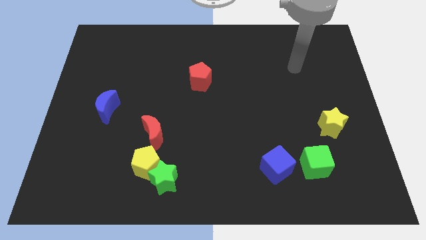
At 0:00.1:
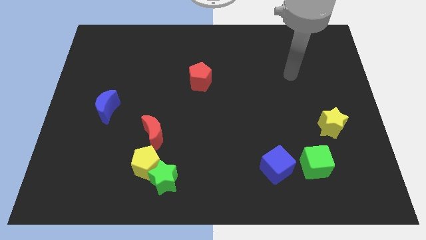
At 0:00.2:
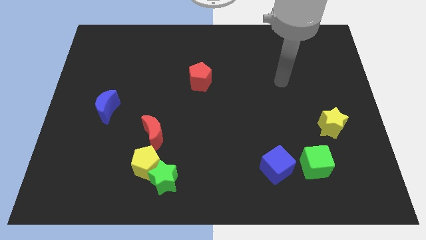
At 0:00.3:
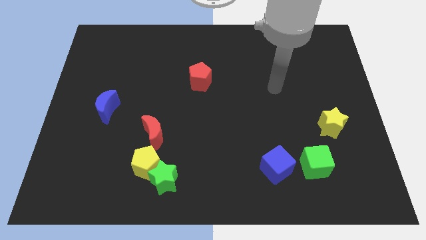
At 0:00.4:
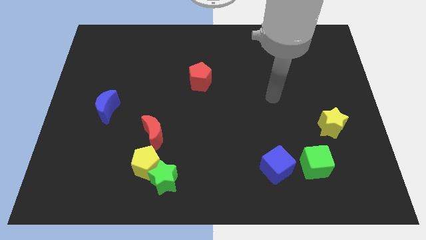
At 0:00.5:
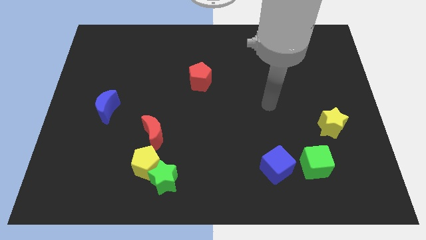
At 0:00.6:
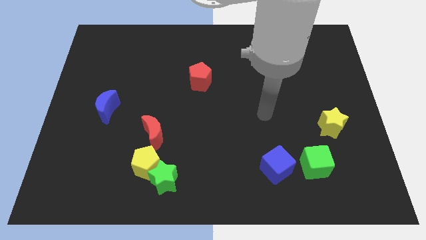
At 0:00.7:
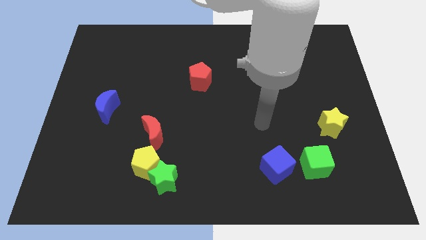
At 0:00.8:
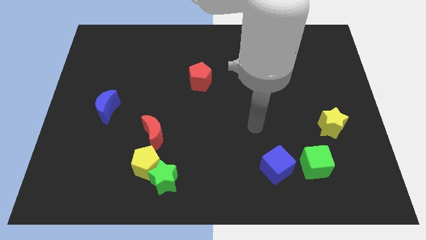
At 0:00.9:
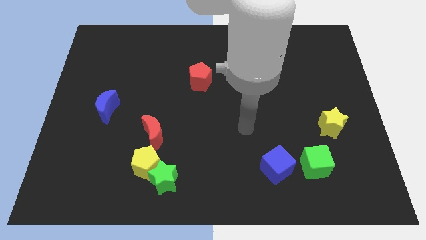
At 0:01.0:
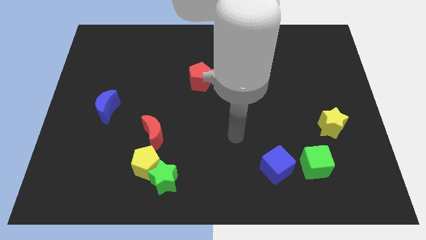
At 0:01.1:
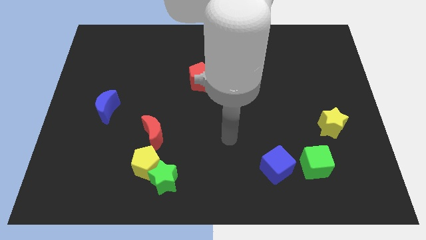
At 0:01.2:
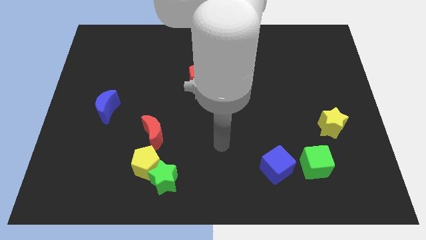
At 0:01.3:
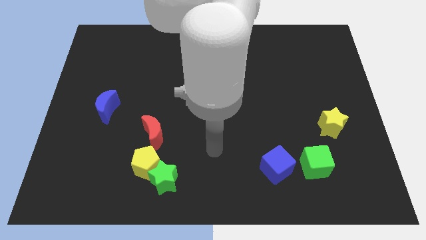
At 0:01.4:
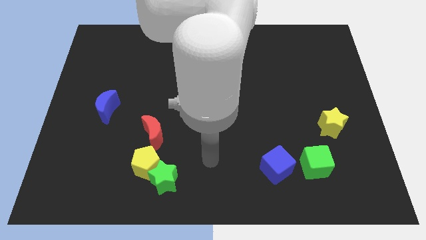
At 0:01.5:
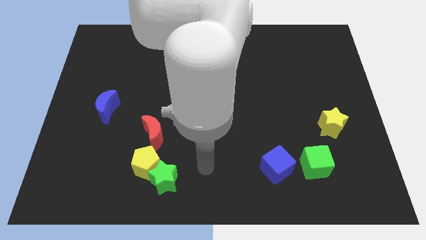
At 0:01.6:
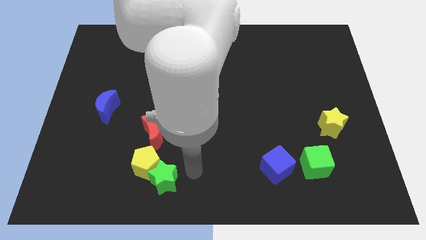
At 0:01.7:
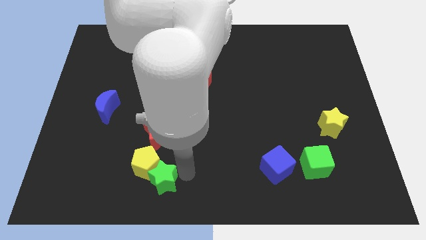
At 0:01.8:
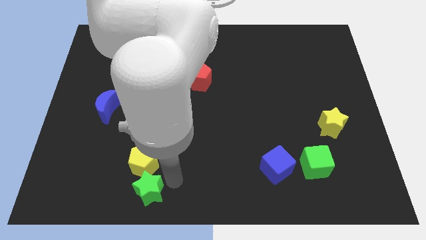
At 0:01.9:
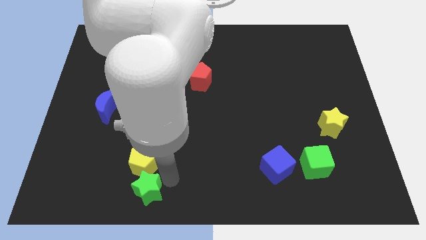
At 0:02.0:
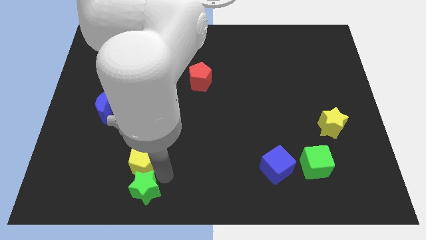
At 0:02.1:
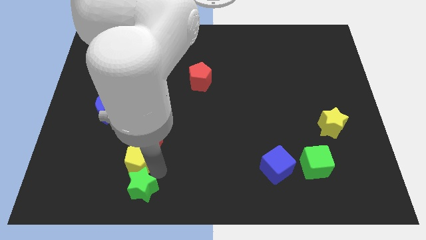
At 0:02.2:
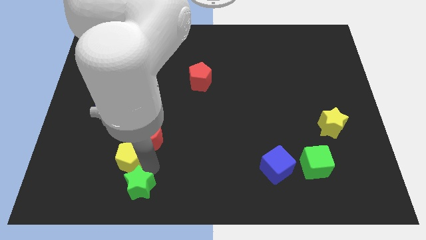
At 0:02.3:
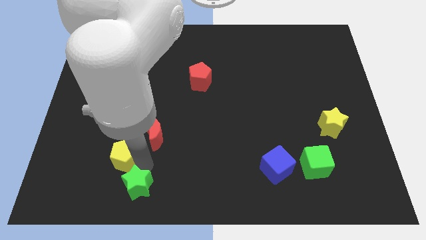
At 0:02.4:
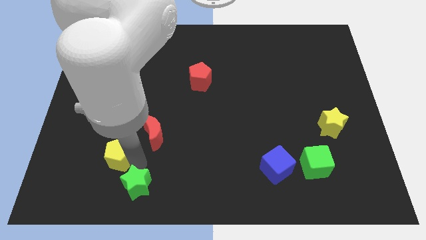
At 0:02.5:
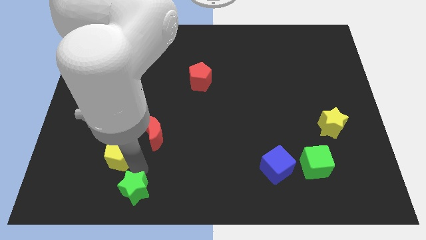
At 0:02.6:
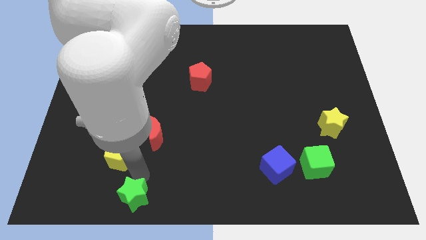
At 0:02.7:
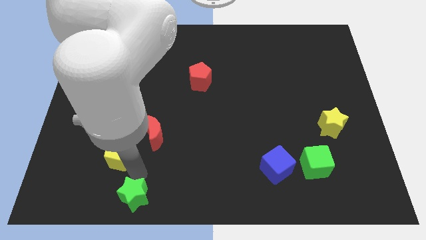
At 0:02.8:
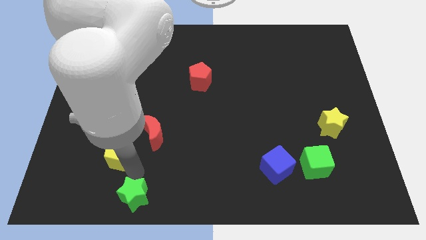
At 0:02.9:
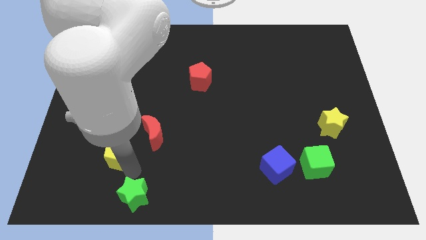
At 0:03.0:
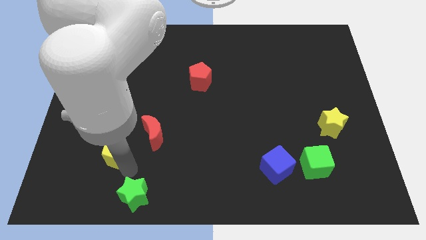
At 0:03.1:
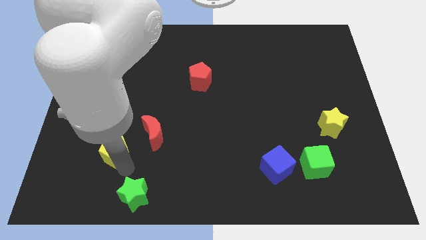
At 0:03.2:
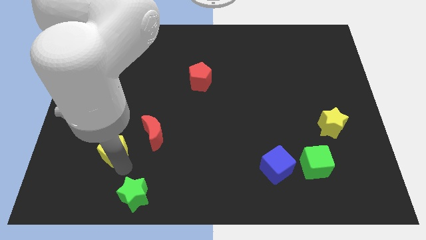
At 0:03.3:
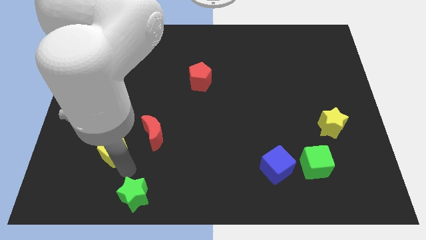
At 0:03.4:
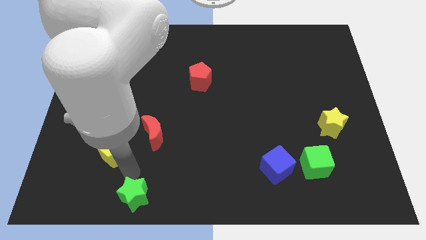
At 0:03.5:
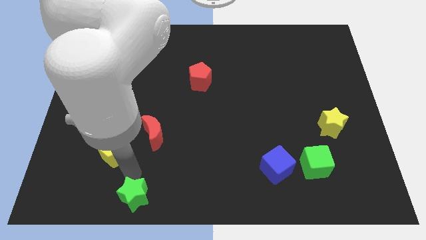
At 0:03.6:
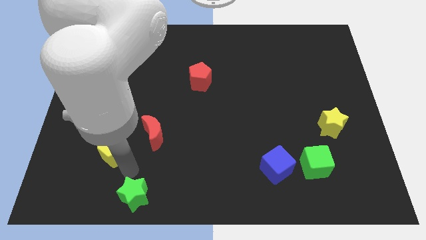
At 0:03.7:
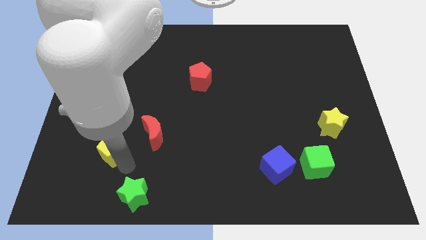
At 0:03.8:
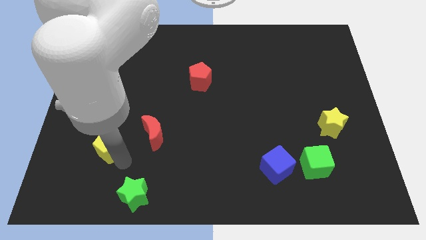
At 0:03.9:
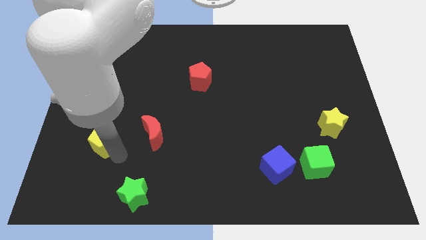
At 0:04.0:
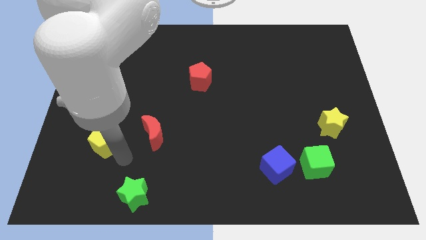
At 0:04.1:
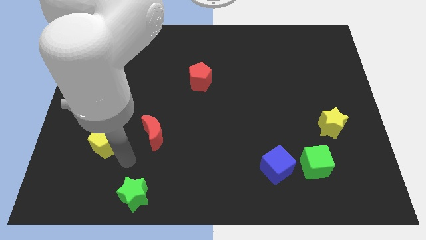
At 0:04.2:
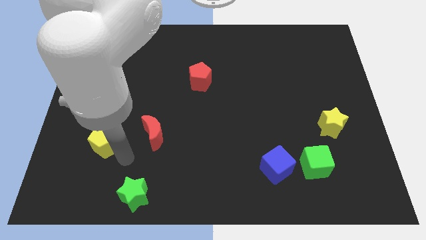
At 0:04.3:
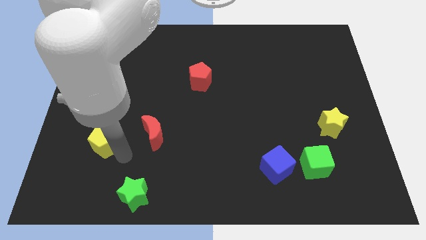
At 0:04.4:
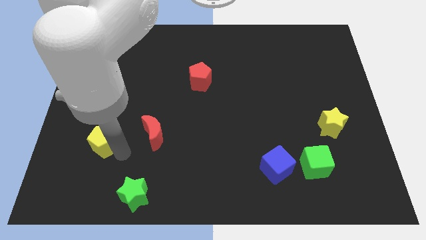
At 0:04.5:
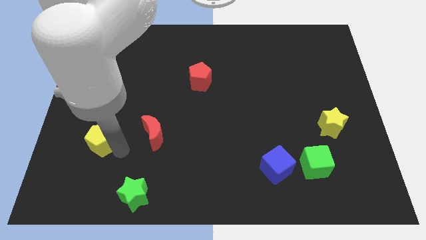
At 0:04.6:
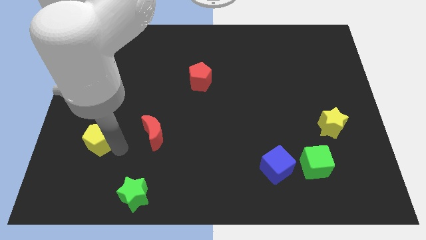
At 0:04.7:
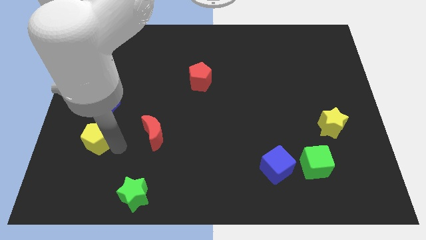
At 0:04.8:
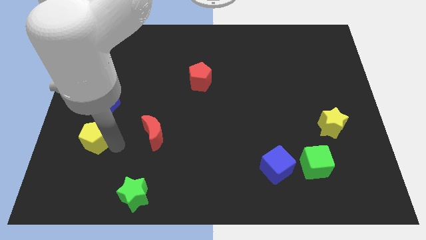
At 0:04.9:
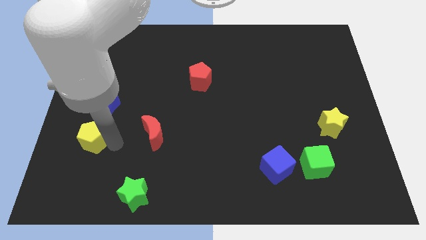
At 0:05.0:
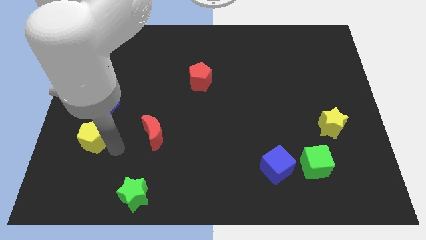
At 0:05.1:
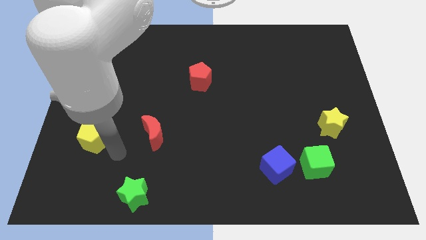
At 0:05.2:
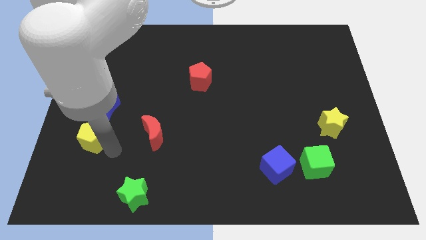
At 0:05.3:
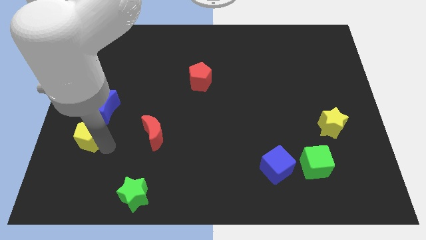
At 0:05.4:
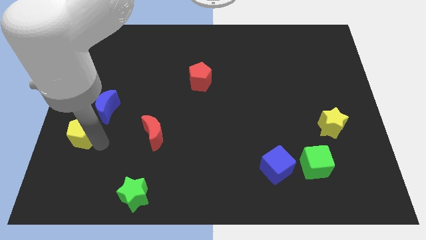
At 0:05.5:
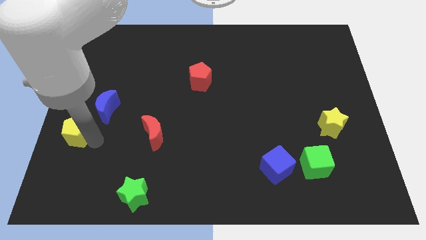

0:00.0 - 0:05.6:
move the yellow pentagon to the left side of the board
